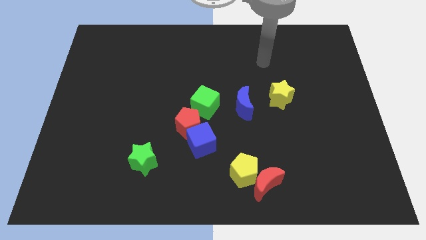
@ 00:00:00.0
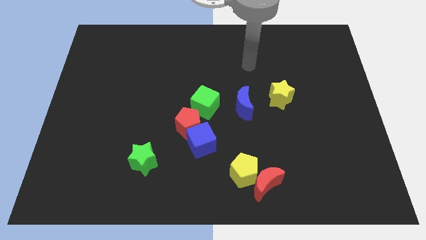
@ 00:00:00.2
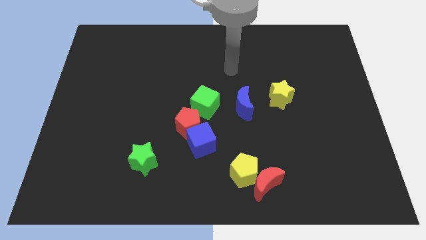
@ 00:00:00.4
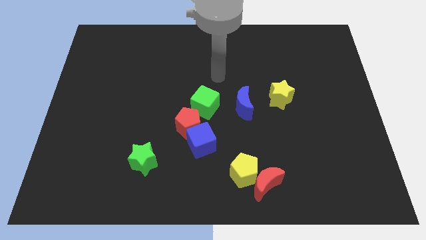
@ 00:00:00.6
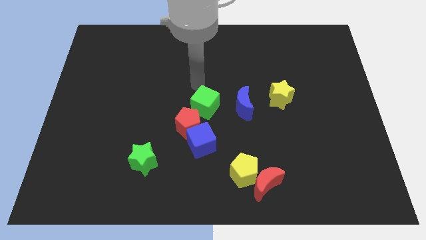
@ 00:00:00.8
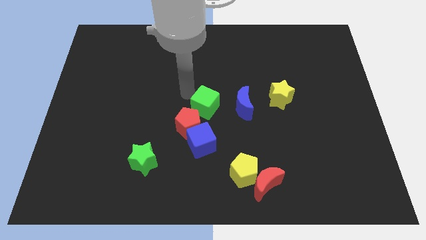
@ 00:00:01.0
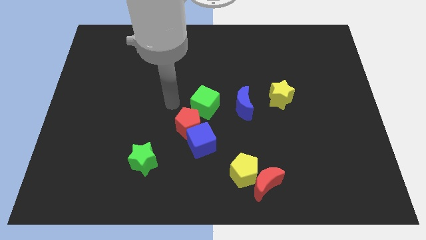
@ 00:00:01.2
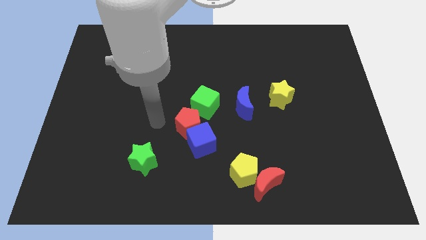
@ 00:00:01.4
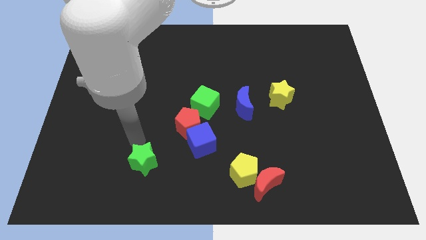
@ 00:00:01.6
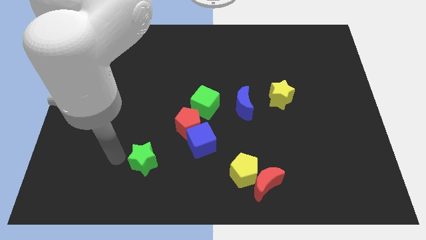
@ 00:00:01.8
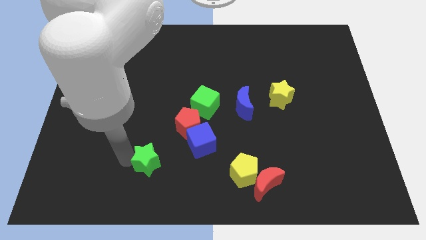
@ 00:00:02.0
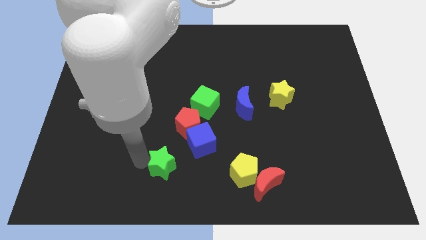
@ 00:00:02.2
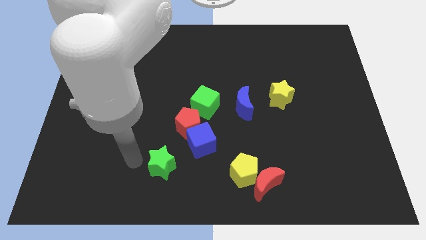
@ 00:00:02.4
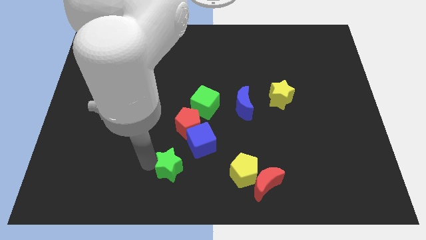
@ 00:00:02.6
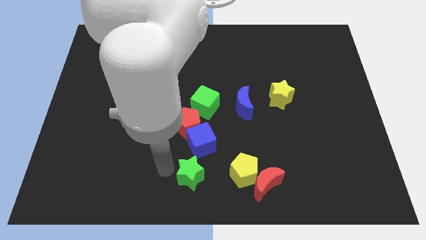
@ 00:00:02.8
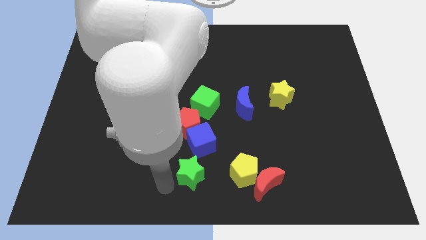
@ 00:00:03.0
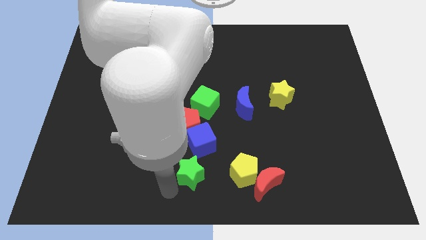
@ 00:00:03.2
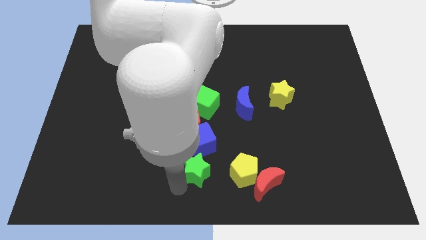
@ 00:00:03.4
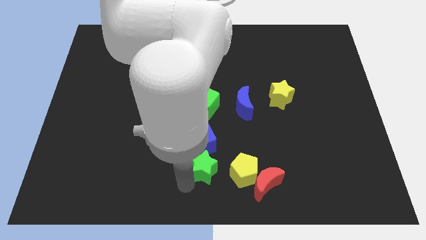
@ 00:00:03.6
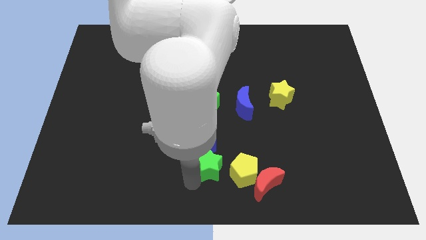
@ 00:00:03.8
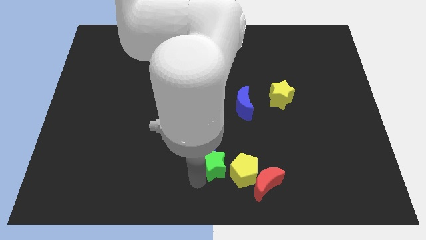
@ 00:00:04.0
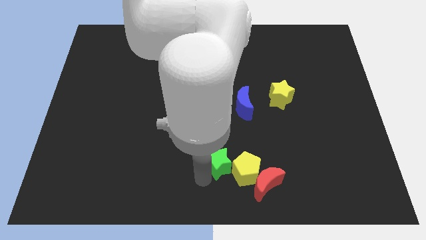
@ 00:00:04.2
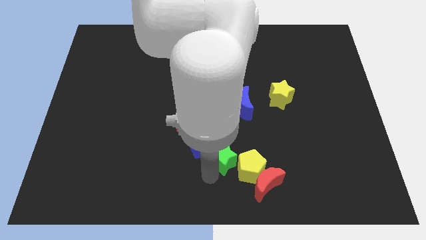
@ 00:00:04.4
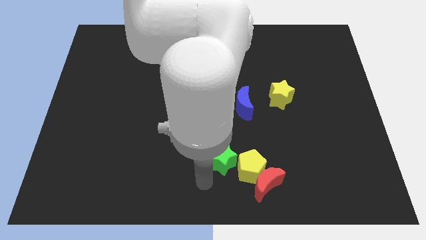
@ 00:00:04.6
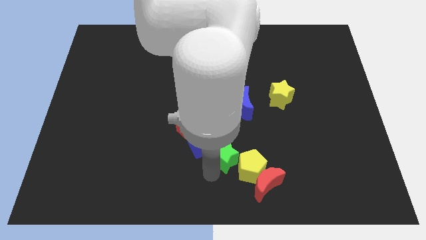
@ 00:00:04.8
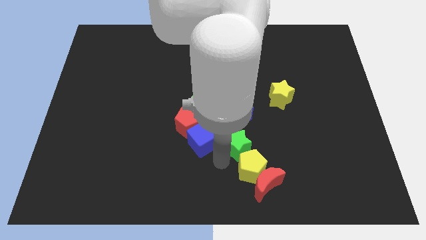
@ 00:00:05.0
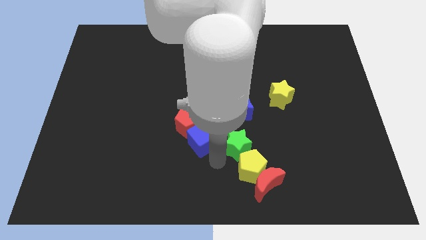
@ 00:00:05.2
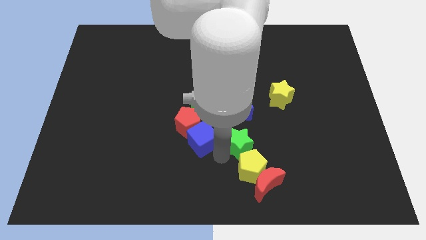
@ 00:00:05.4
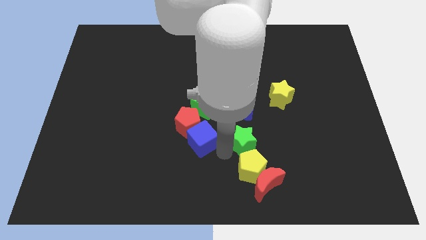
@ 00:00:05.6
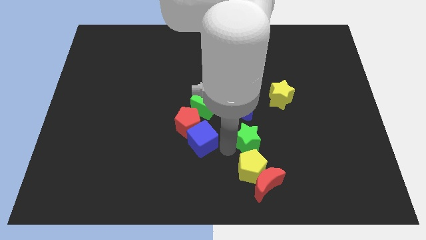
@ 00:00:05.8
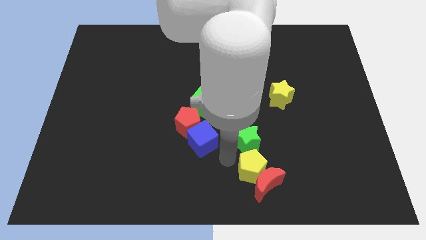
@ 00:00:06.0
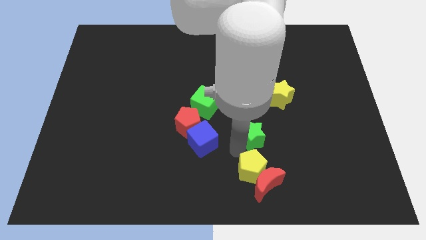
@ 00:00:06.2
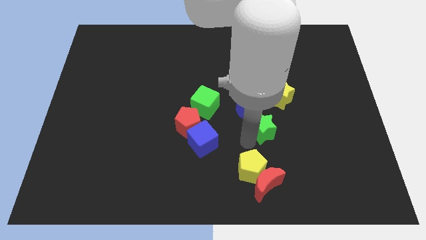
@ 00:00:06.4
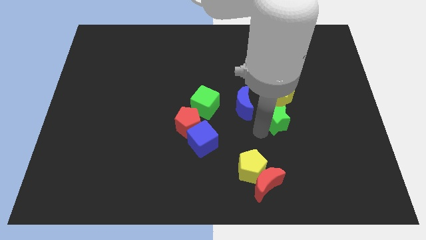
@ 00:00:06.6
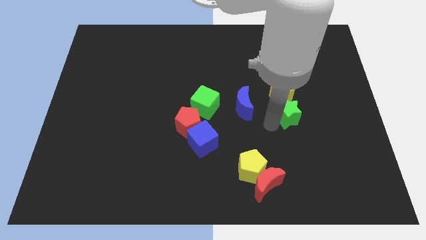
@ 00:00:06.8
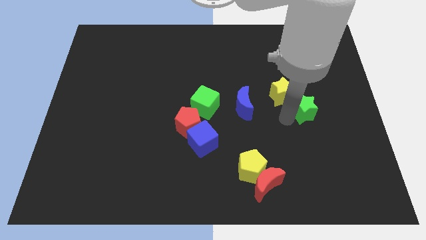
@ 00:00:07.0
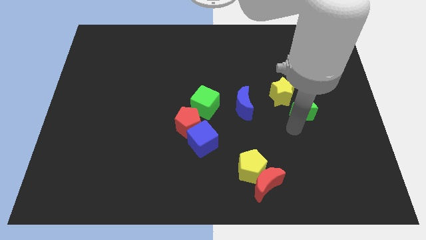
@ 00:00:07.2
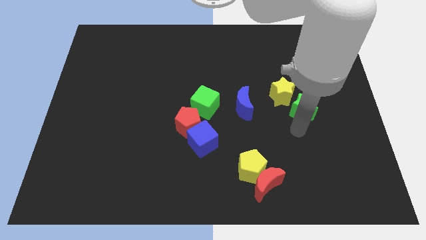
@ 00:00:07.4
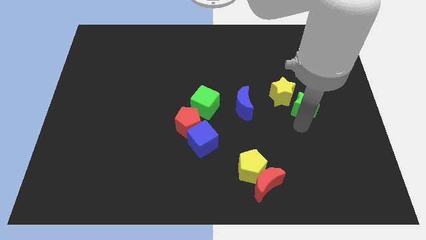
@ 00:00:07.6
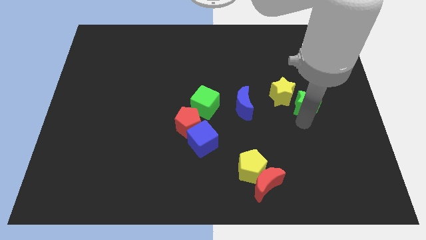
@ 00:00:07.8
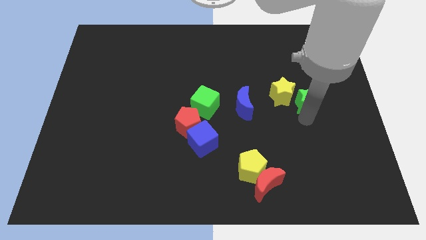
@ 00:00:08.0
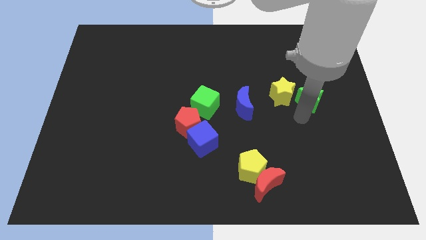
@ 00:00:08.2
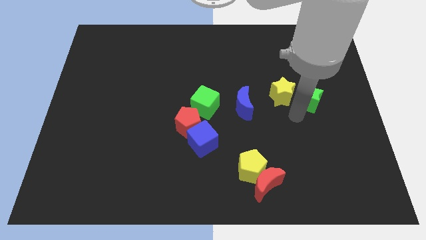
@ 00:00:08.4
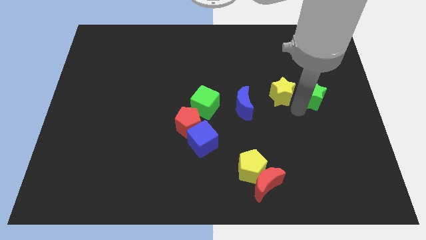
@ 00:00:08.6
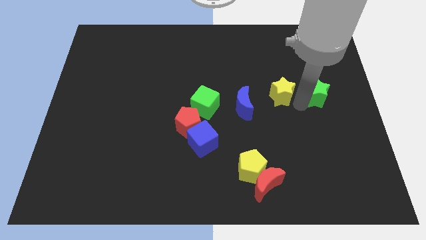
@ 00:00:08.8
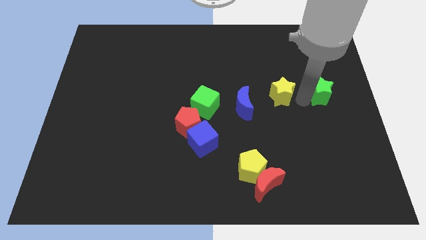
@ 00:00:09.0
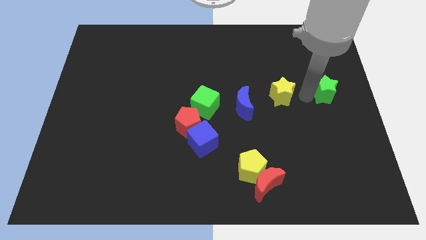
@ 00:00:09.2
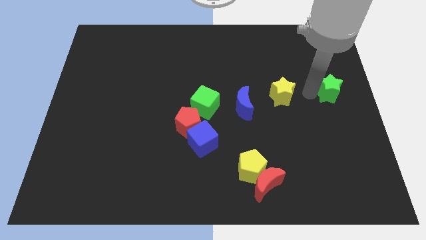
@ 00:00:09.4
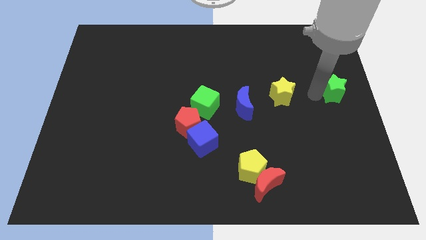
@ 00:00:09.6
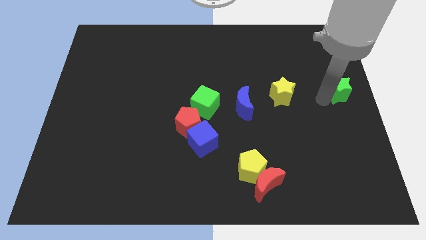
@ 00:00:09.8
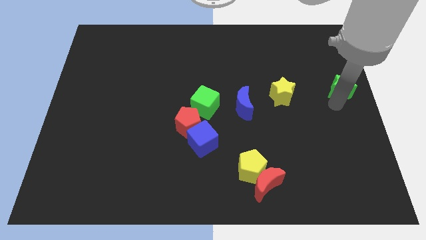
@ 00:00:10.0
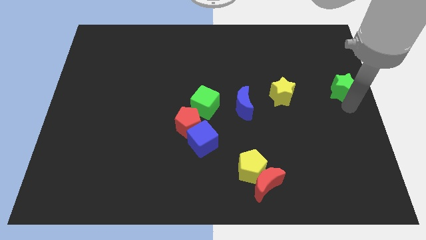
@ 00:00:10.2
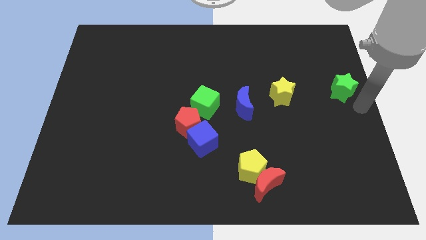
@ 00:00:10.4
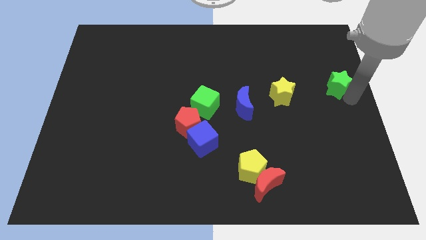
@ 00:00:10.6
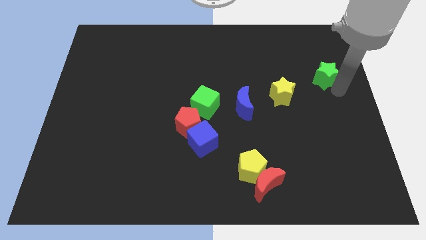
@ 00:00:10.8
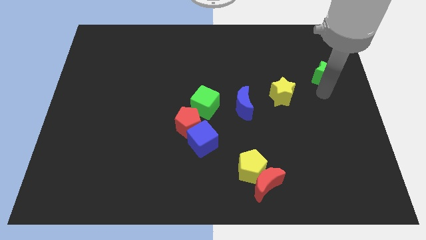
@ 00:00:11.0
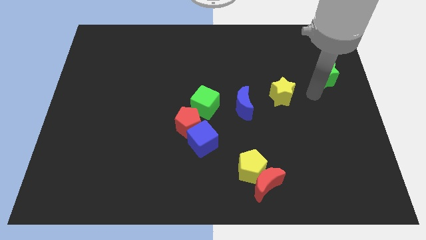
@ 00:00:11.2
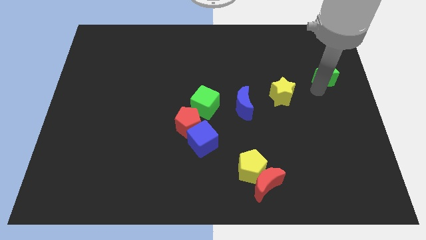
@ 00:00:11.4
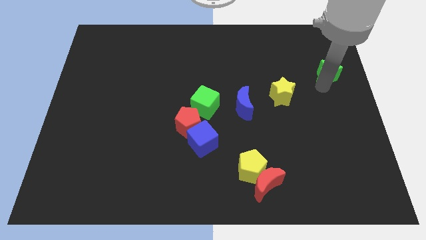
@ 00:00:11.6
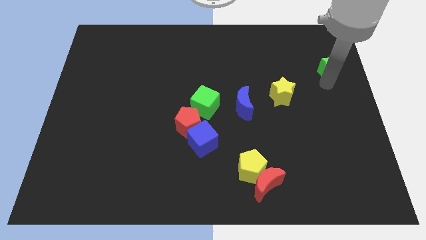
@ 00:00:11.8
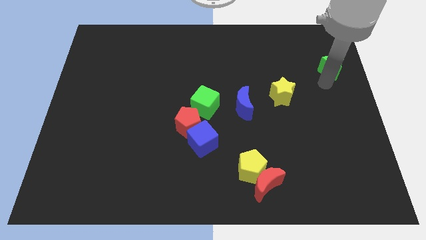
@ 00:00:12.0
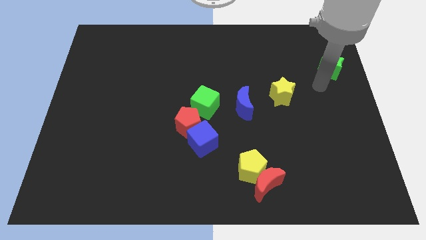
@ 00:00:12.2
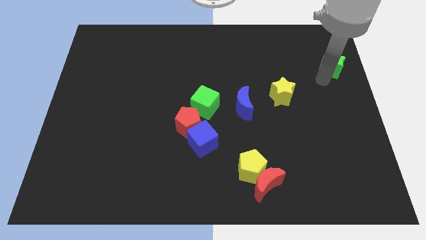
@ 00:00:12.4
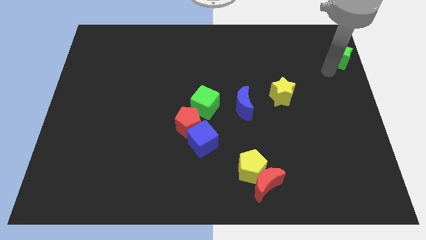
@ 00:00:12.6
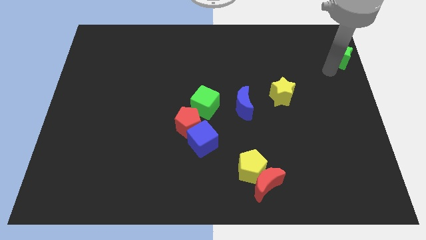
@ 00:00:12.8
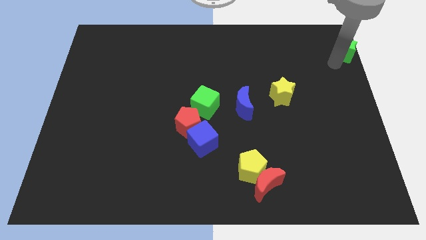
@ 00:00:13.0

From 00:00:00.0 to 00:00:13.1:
move the green star to the top right of the board
